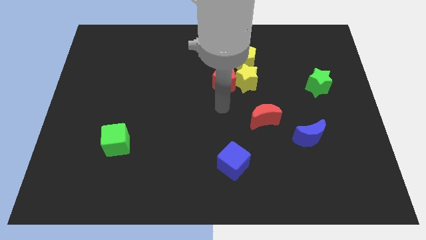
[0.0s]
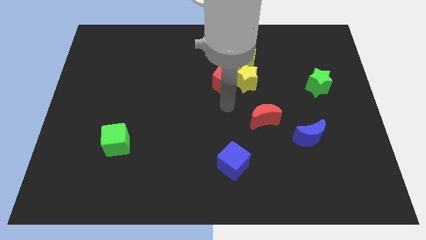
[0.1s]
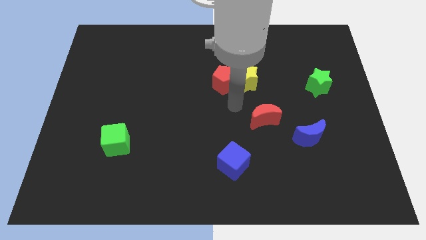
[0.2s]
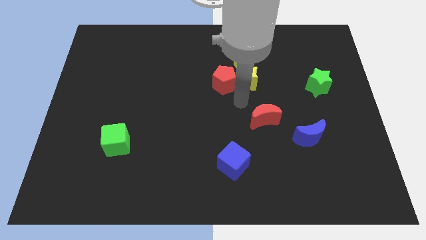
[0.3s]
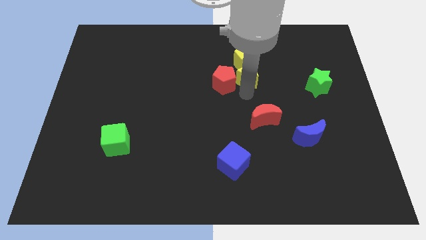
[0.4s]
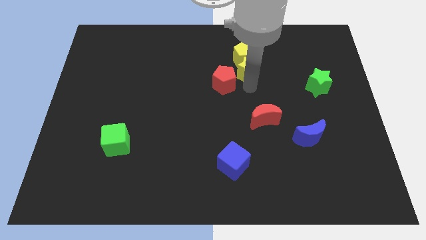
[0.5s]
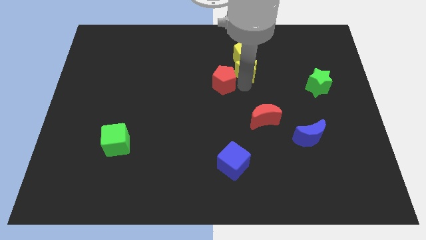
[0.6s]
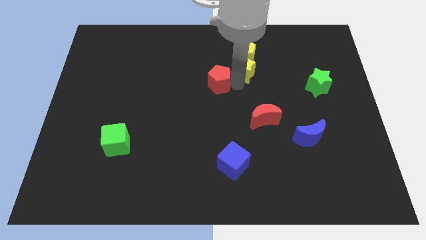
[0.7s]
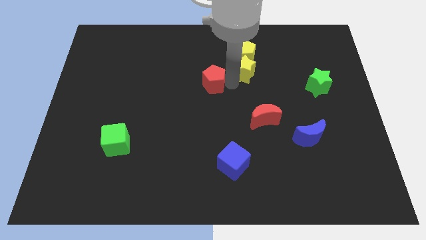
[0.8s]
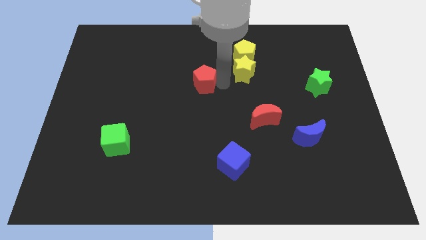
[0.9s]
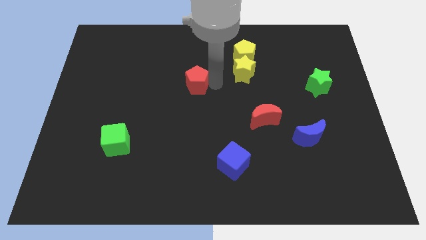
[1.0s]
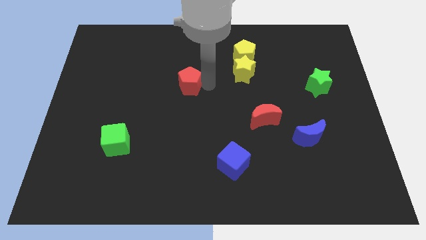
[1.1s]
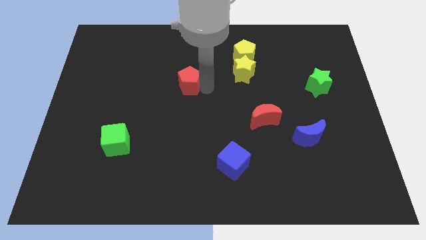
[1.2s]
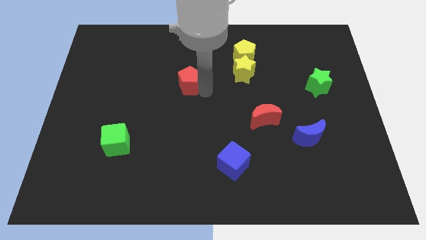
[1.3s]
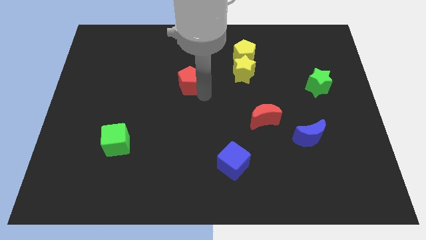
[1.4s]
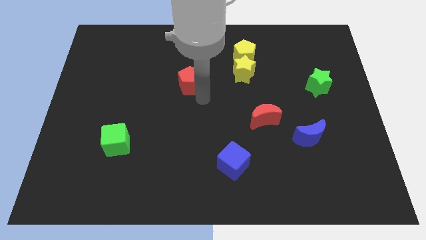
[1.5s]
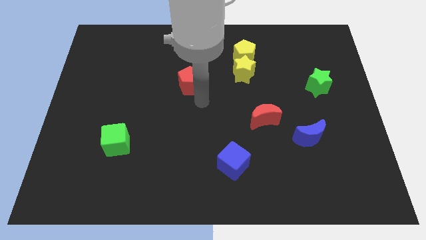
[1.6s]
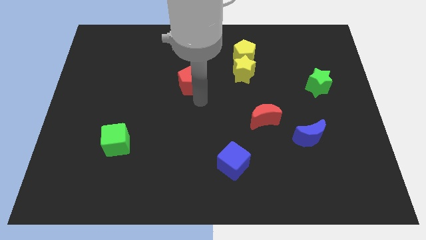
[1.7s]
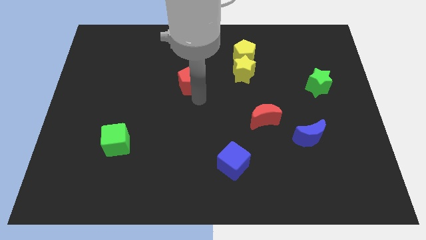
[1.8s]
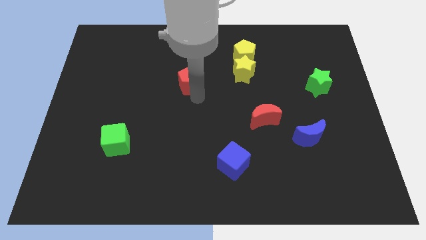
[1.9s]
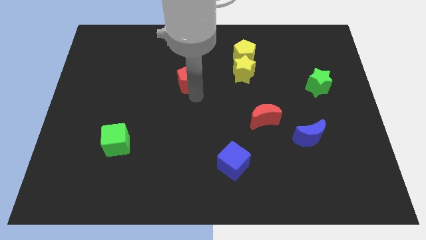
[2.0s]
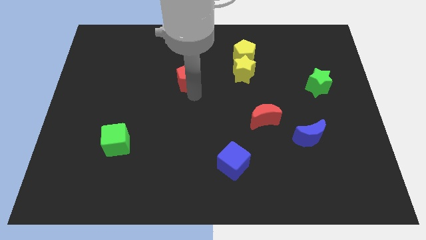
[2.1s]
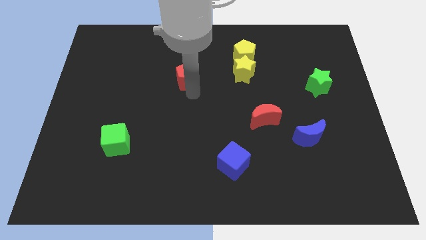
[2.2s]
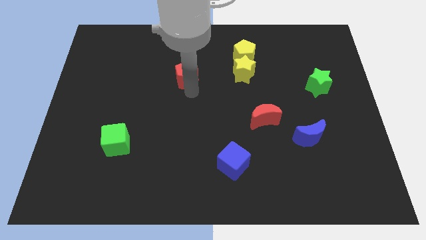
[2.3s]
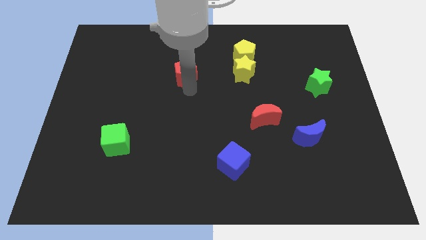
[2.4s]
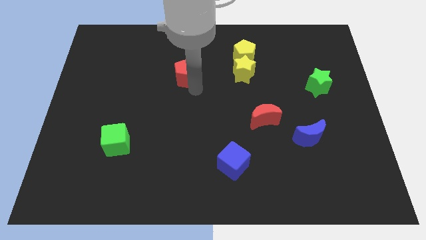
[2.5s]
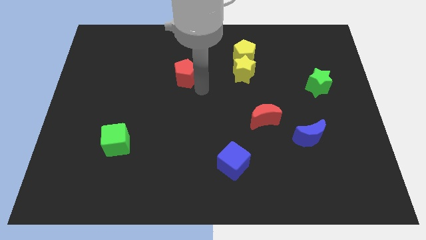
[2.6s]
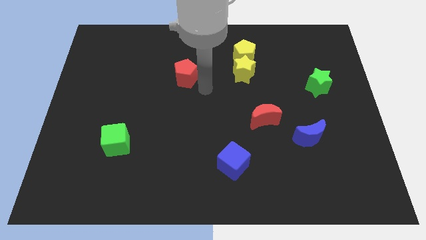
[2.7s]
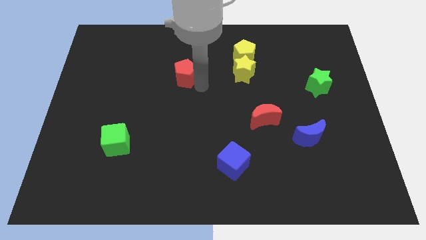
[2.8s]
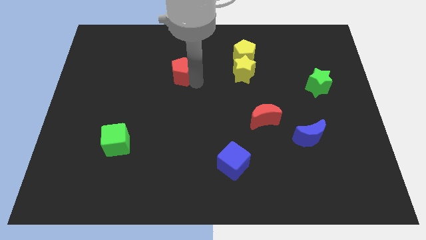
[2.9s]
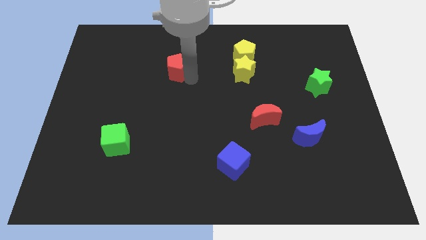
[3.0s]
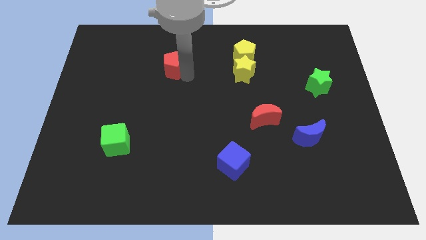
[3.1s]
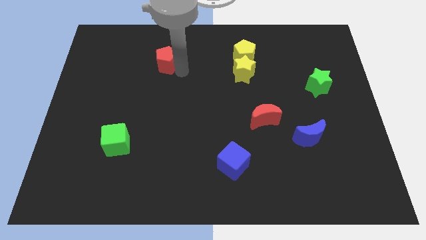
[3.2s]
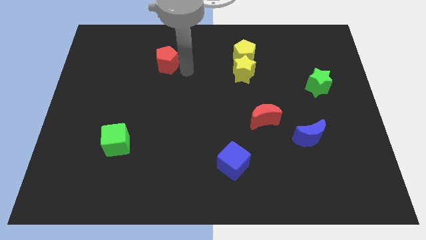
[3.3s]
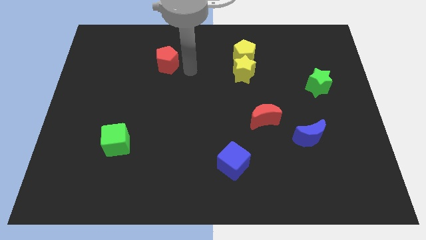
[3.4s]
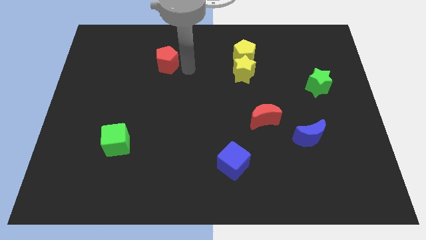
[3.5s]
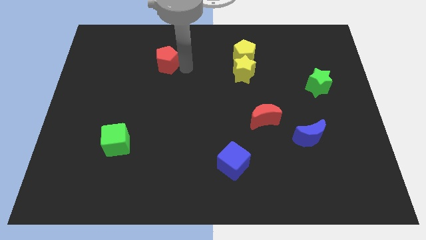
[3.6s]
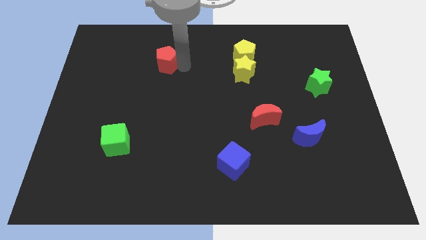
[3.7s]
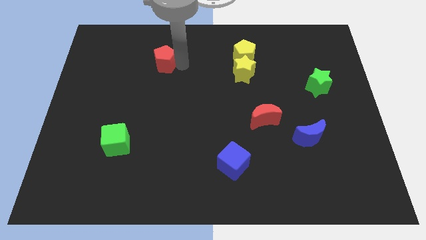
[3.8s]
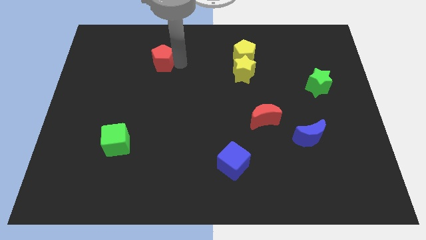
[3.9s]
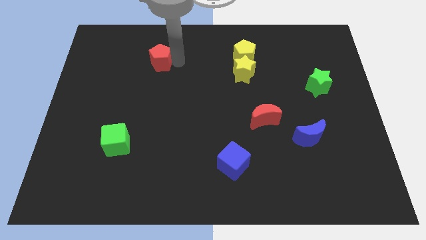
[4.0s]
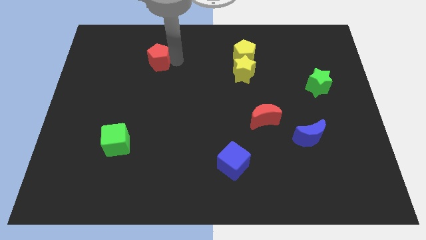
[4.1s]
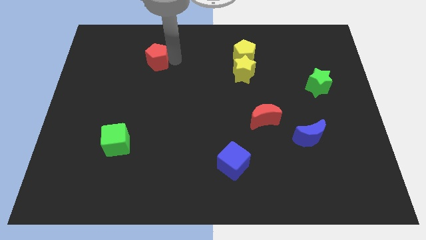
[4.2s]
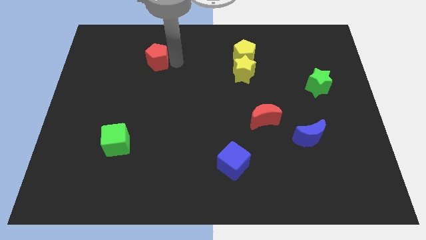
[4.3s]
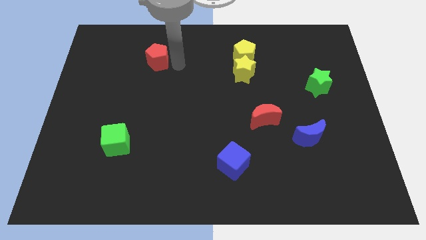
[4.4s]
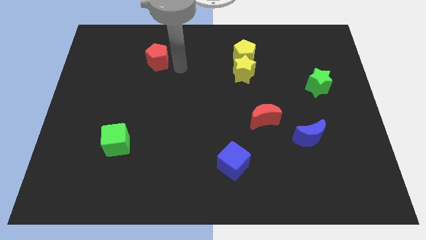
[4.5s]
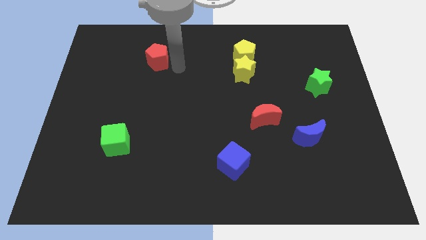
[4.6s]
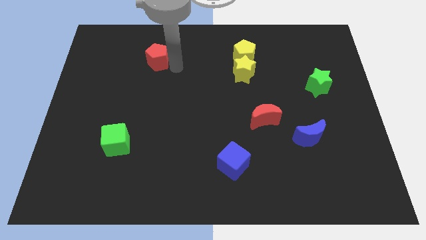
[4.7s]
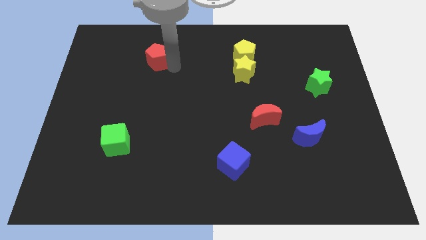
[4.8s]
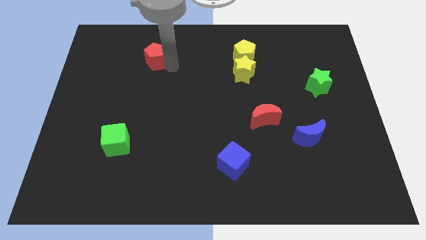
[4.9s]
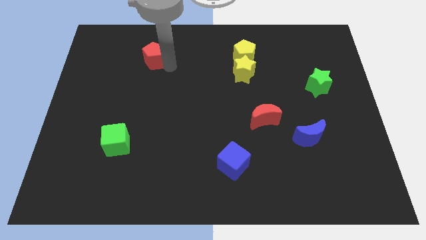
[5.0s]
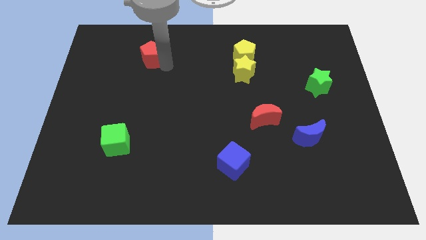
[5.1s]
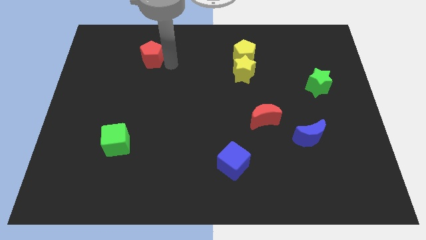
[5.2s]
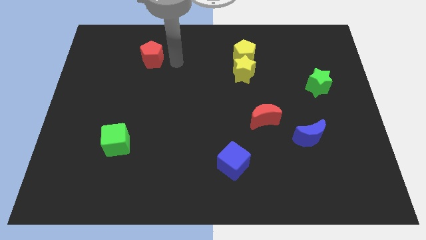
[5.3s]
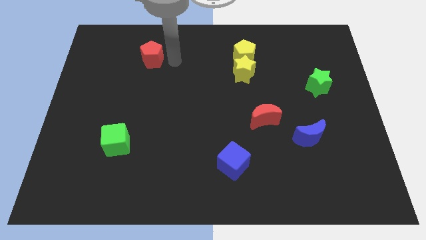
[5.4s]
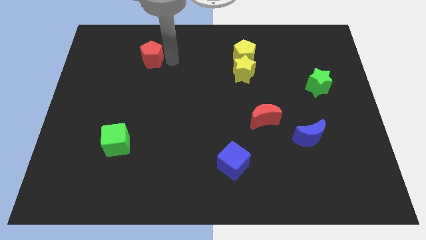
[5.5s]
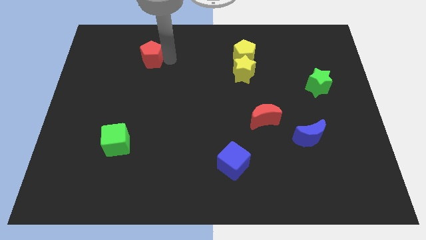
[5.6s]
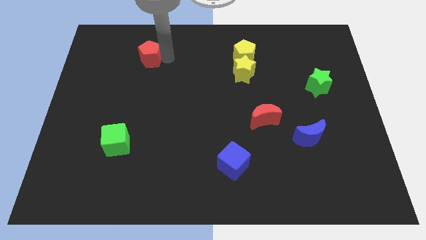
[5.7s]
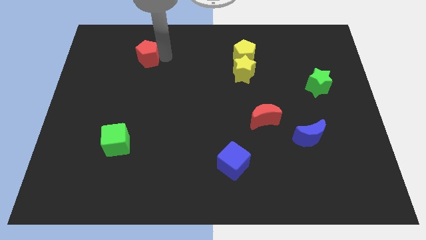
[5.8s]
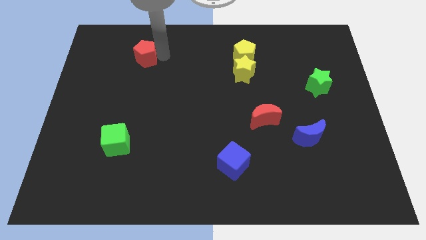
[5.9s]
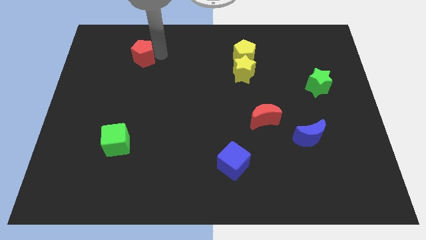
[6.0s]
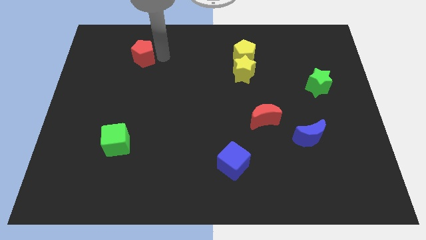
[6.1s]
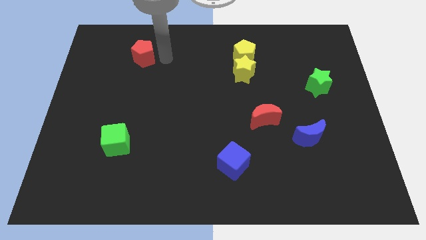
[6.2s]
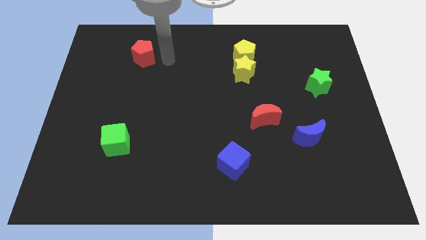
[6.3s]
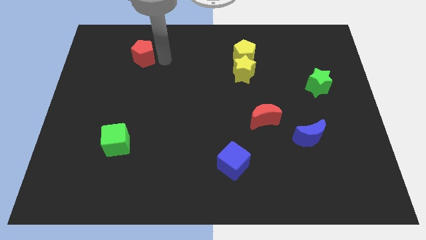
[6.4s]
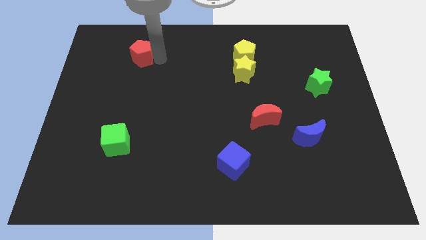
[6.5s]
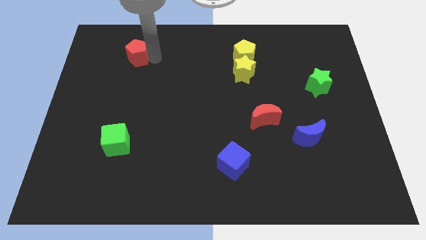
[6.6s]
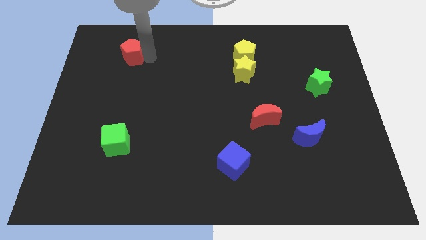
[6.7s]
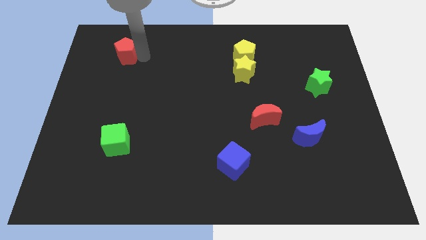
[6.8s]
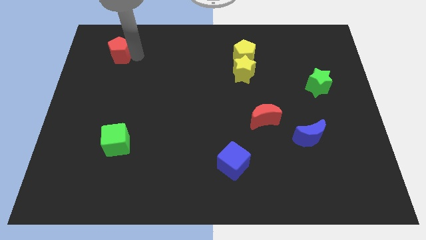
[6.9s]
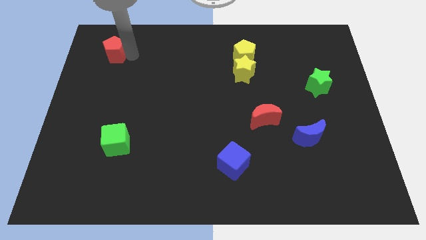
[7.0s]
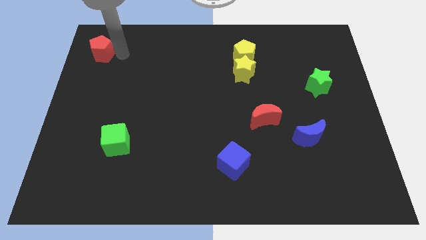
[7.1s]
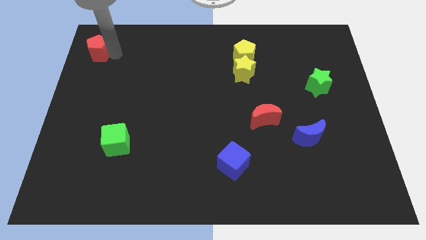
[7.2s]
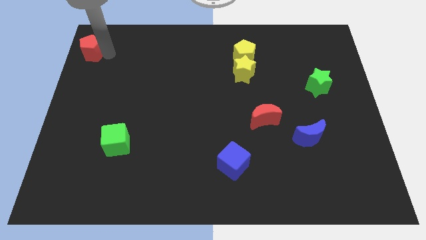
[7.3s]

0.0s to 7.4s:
put the red pentagon to the top left
